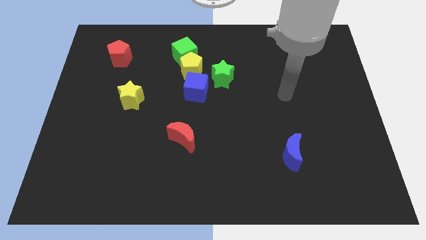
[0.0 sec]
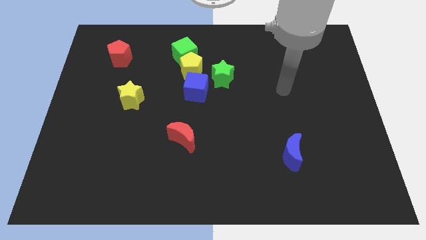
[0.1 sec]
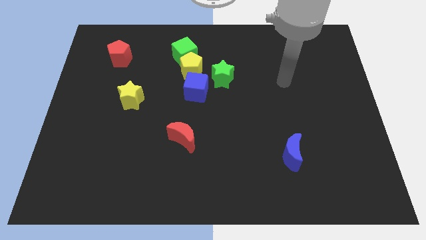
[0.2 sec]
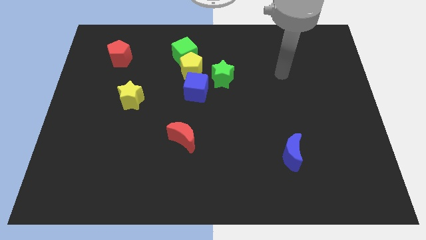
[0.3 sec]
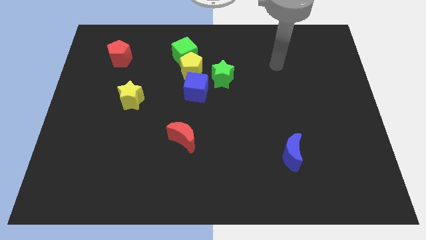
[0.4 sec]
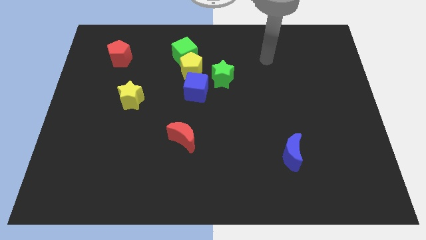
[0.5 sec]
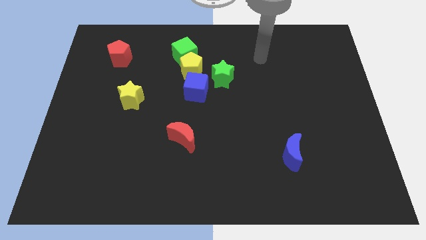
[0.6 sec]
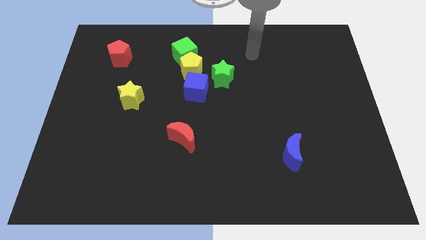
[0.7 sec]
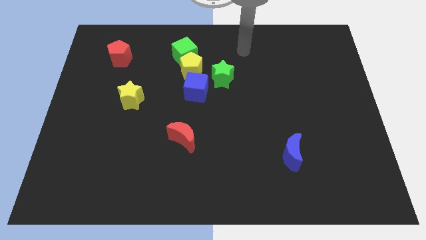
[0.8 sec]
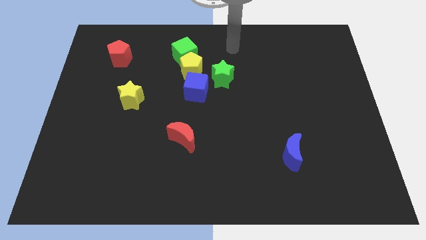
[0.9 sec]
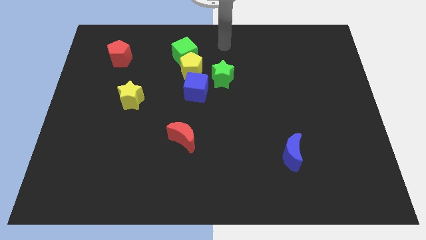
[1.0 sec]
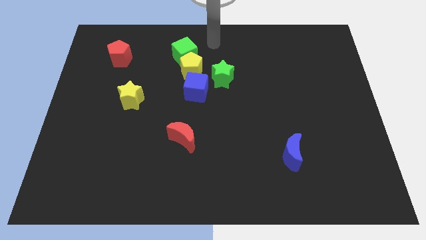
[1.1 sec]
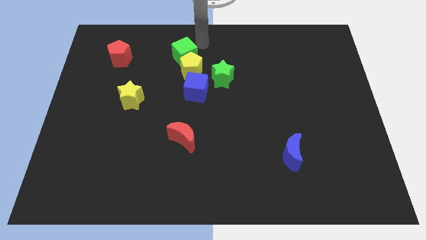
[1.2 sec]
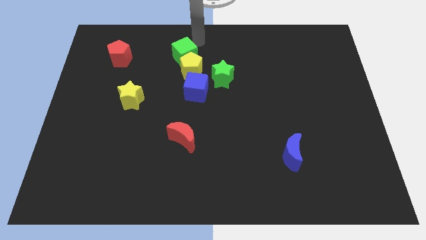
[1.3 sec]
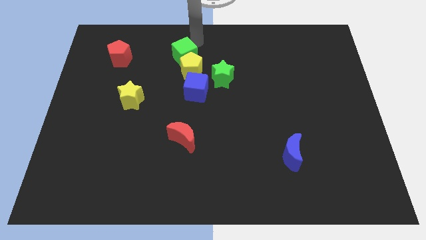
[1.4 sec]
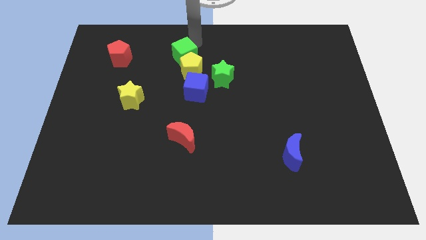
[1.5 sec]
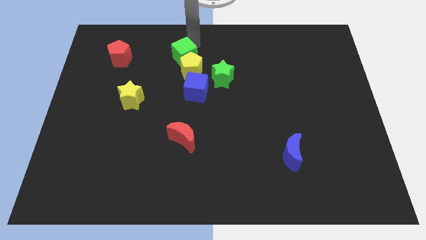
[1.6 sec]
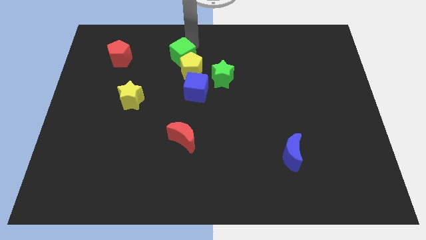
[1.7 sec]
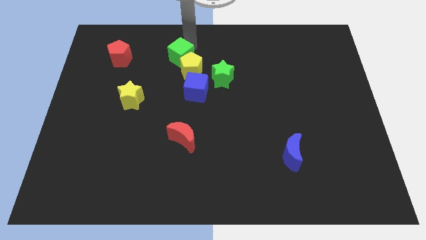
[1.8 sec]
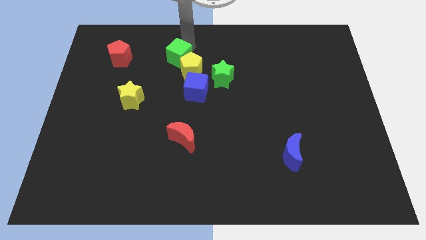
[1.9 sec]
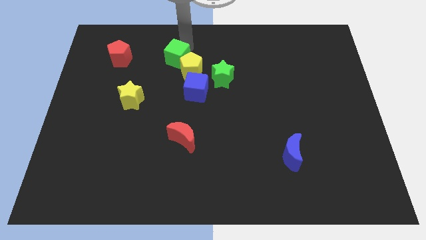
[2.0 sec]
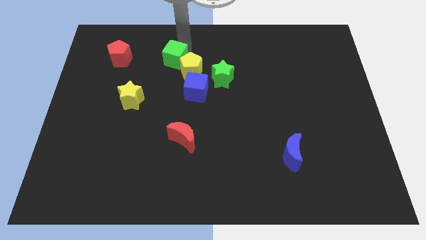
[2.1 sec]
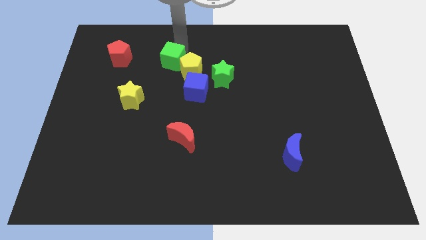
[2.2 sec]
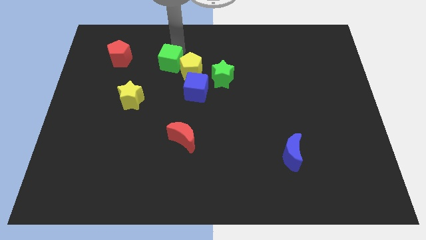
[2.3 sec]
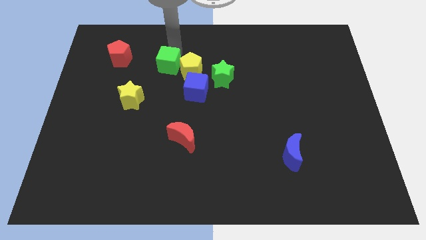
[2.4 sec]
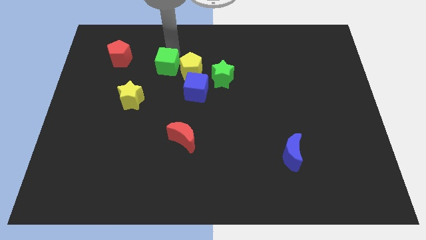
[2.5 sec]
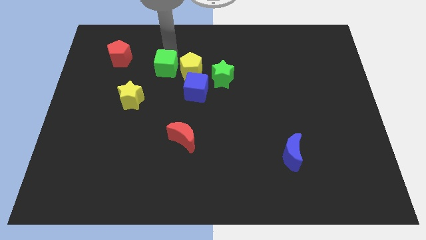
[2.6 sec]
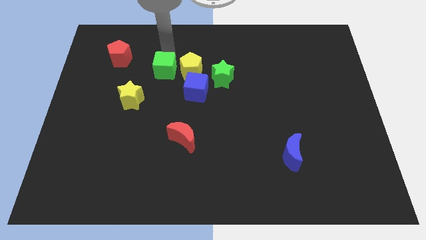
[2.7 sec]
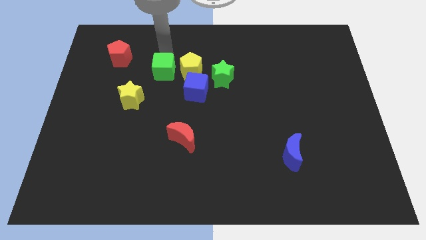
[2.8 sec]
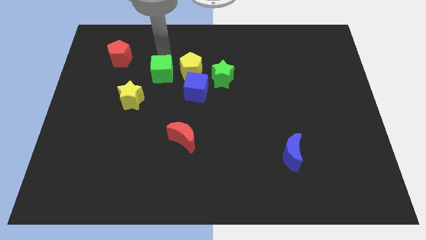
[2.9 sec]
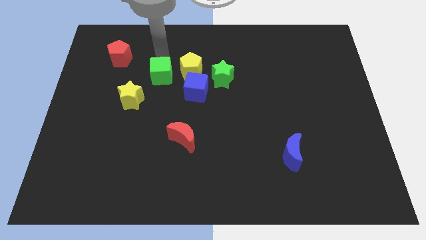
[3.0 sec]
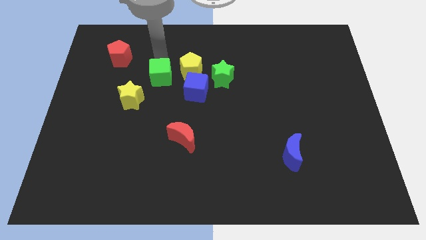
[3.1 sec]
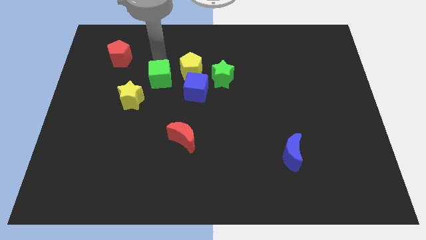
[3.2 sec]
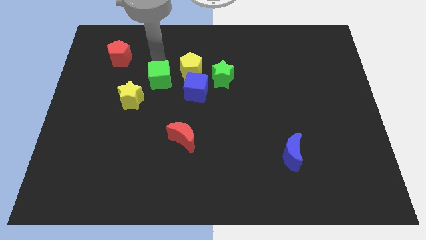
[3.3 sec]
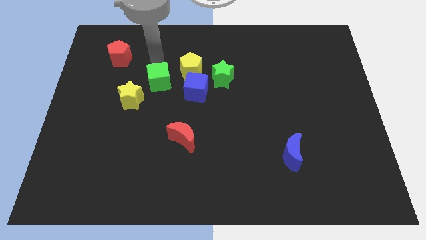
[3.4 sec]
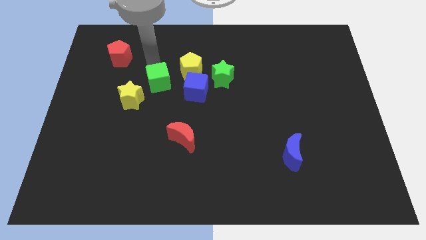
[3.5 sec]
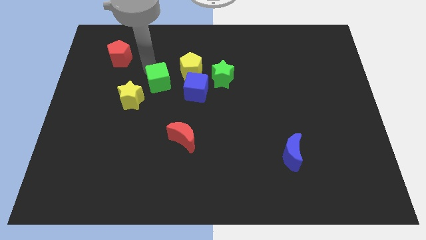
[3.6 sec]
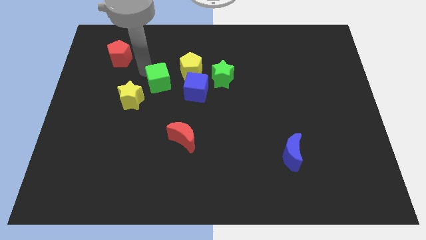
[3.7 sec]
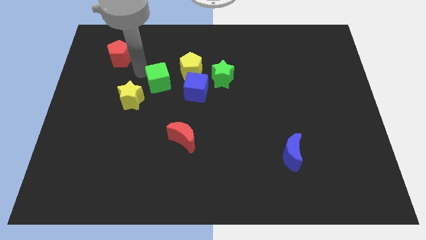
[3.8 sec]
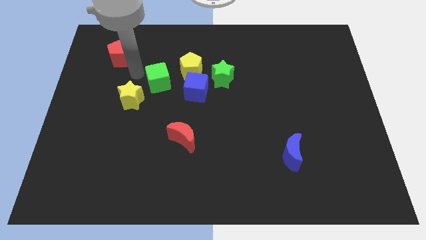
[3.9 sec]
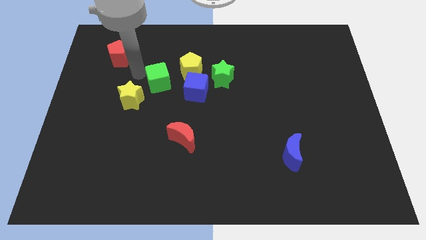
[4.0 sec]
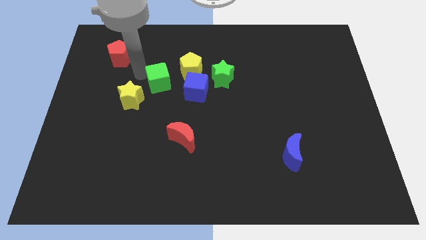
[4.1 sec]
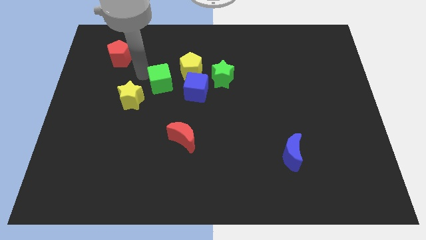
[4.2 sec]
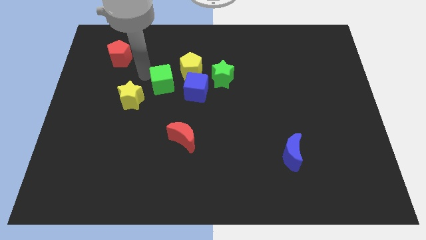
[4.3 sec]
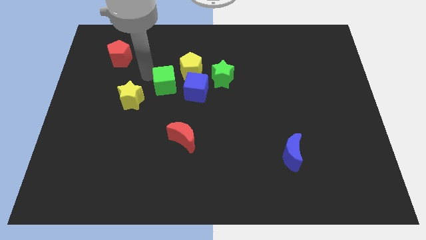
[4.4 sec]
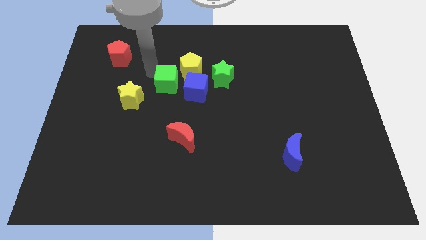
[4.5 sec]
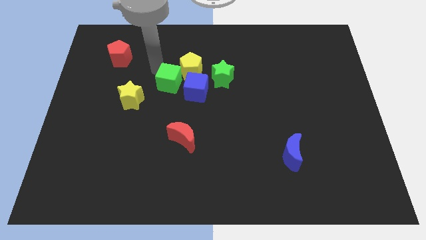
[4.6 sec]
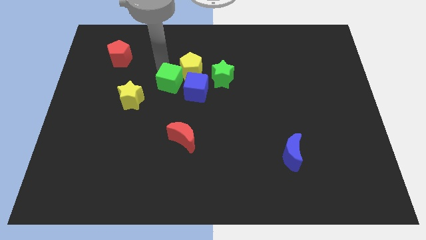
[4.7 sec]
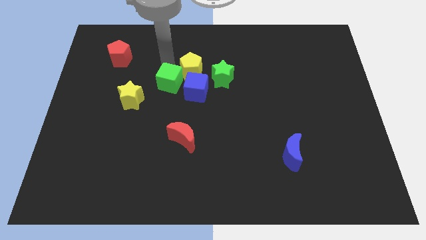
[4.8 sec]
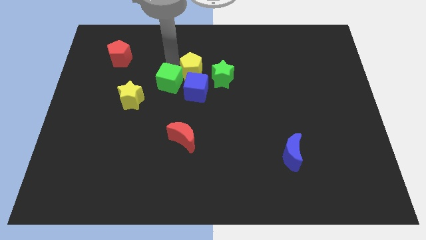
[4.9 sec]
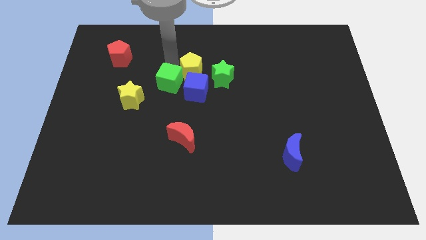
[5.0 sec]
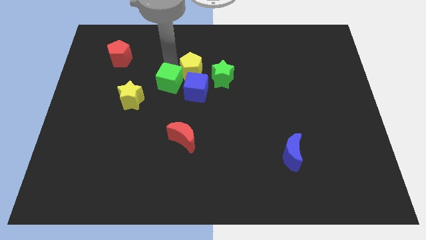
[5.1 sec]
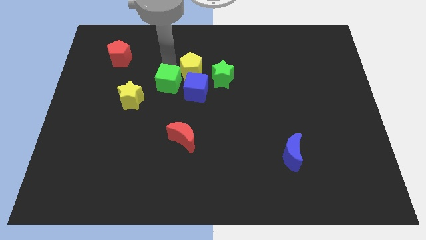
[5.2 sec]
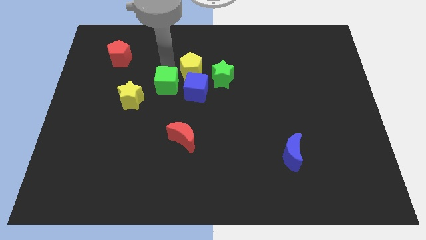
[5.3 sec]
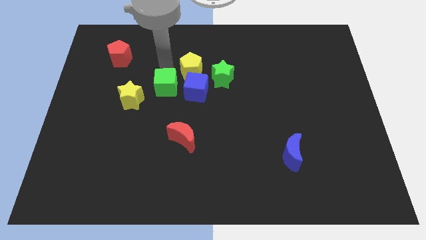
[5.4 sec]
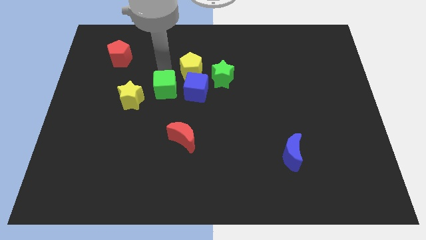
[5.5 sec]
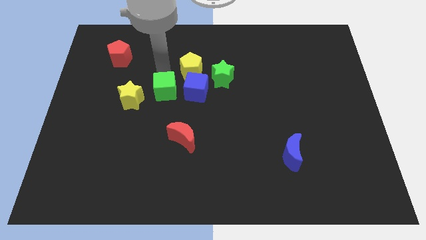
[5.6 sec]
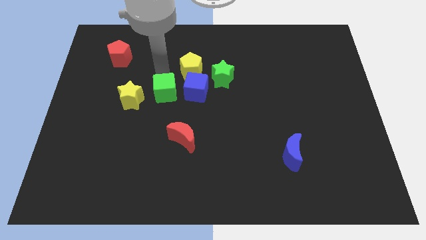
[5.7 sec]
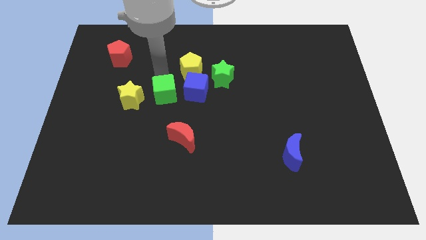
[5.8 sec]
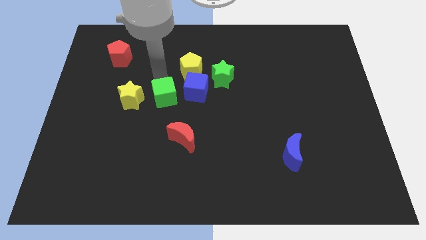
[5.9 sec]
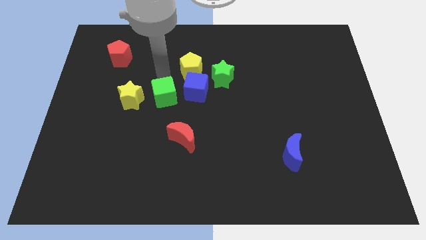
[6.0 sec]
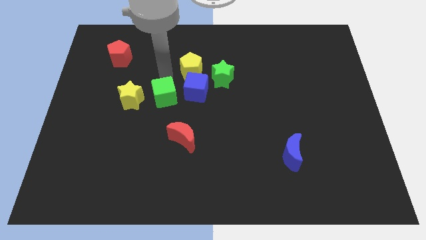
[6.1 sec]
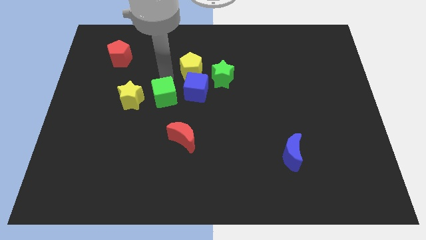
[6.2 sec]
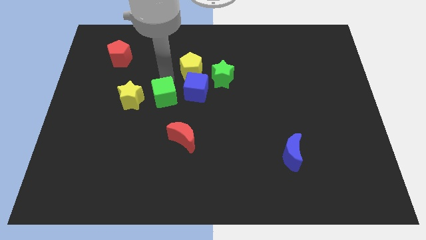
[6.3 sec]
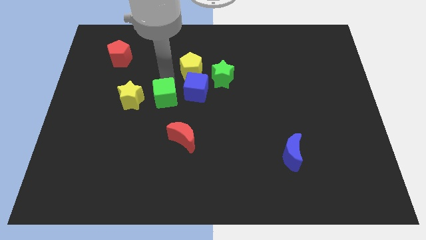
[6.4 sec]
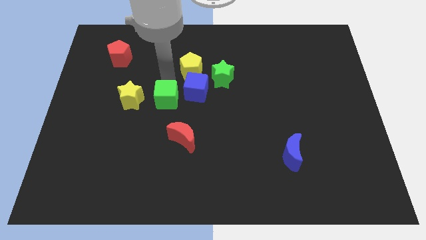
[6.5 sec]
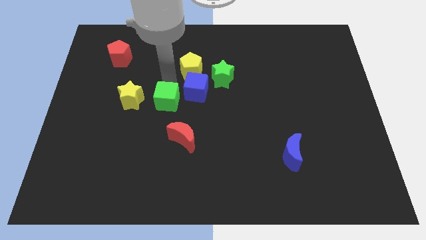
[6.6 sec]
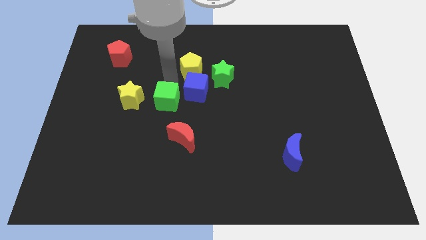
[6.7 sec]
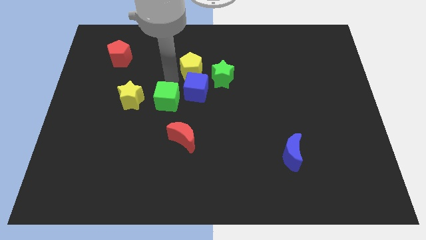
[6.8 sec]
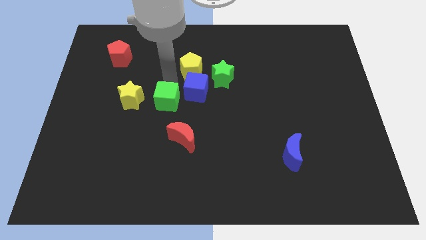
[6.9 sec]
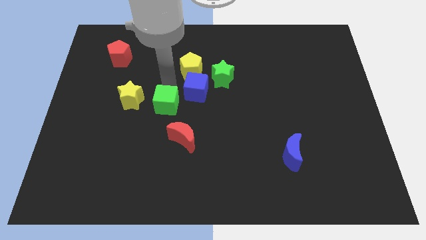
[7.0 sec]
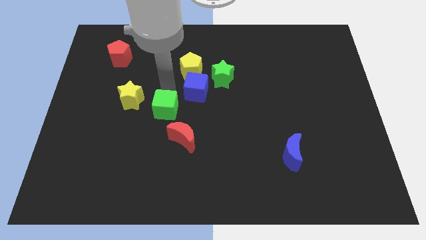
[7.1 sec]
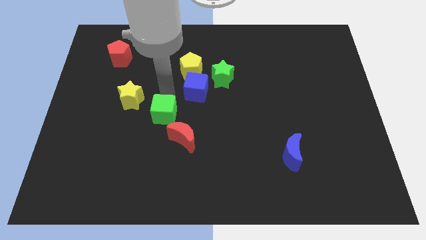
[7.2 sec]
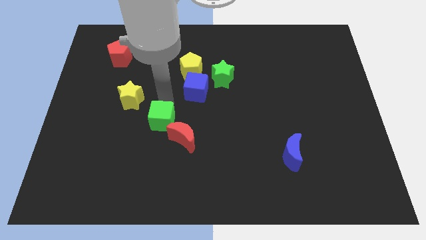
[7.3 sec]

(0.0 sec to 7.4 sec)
slide the green cube downwards

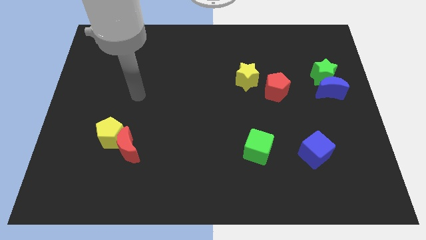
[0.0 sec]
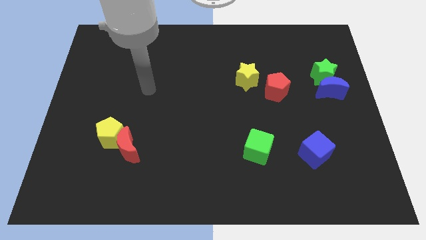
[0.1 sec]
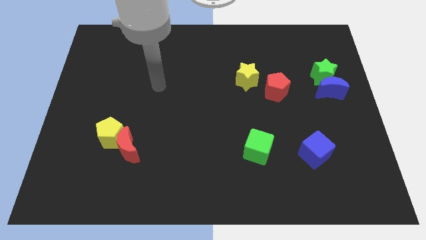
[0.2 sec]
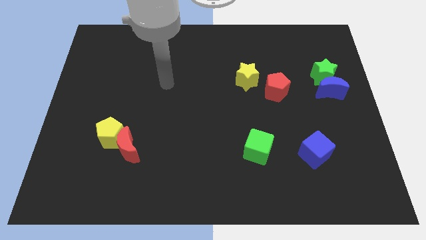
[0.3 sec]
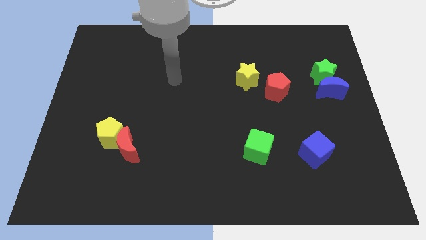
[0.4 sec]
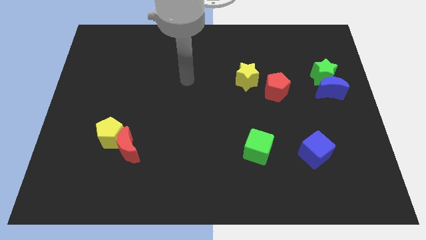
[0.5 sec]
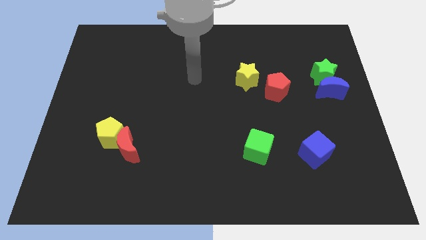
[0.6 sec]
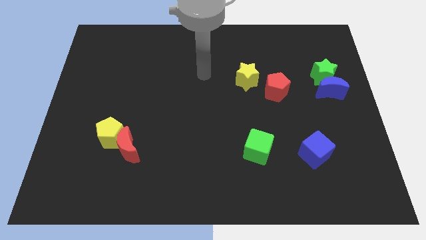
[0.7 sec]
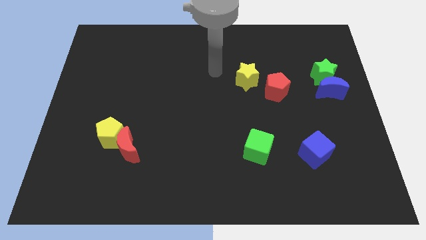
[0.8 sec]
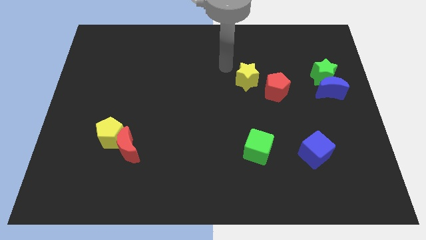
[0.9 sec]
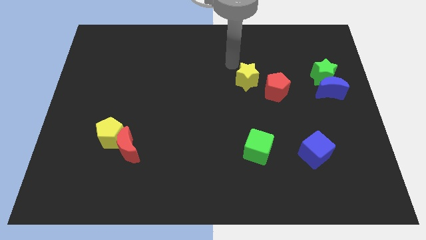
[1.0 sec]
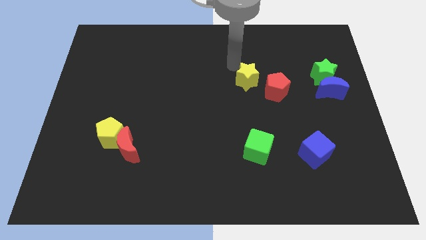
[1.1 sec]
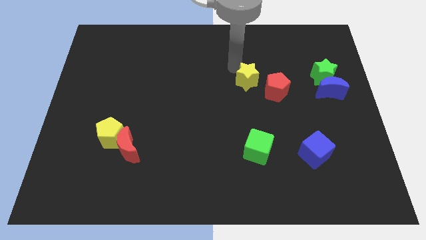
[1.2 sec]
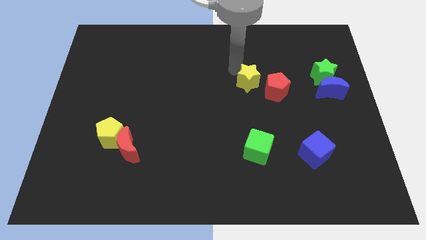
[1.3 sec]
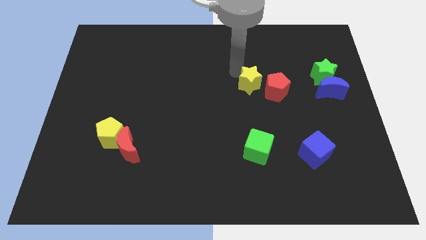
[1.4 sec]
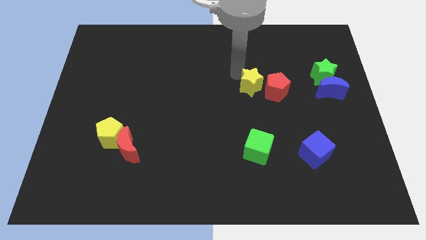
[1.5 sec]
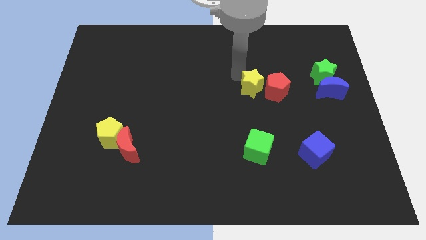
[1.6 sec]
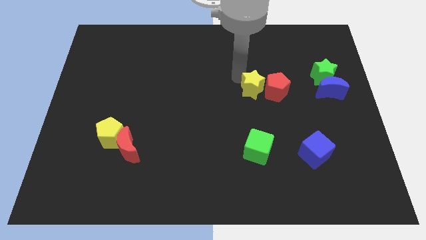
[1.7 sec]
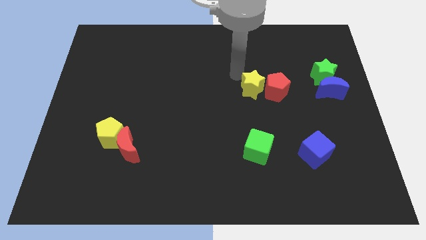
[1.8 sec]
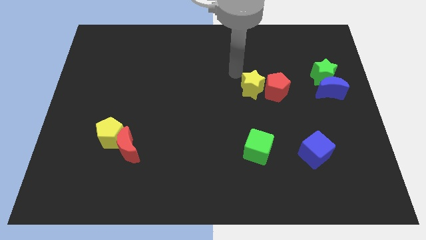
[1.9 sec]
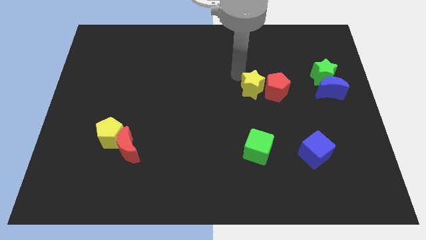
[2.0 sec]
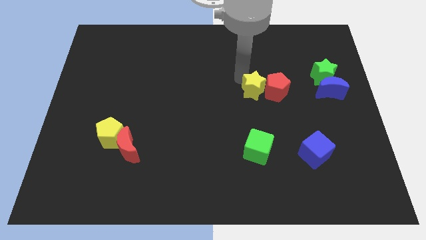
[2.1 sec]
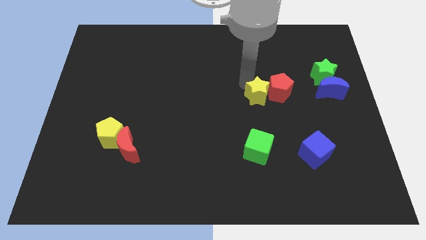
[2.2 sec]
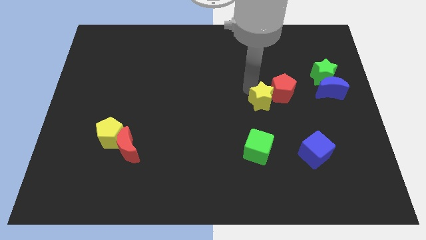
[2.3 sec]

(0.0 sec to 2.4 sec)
slide the yellow star down and then to the right a little
